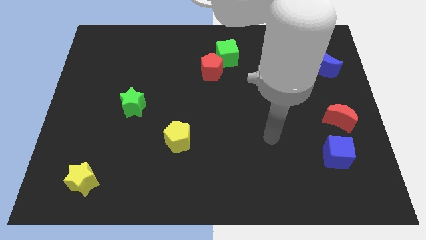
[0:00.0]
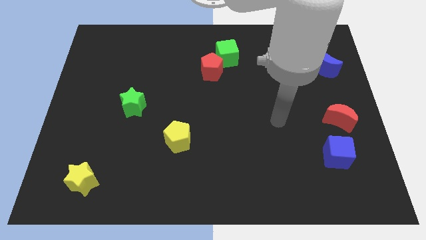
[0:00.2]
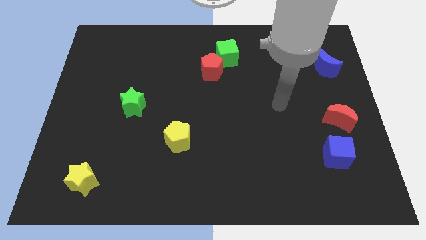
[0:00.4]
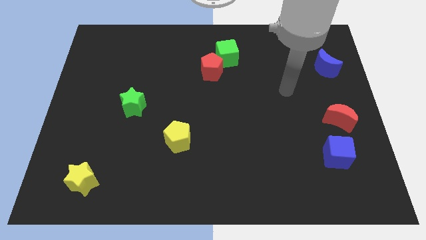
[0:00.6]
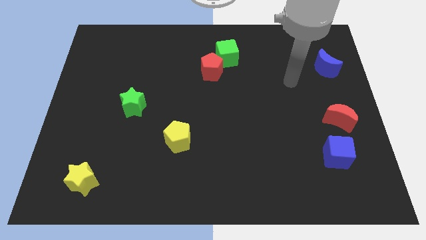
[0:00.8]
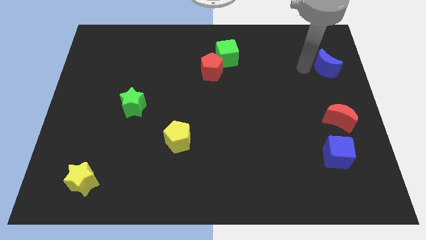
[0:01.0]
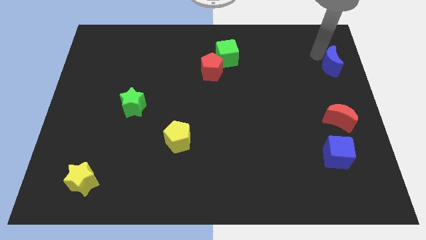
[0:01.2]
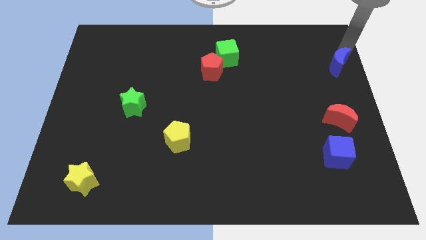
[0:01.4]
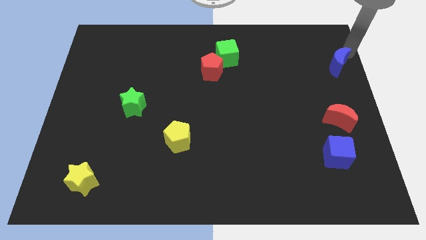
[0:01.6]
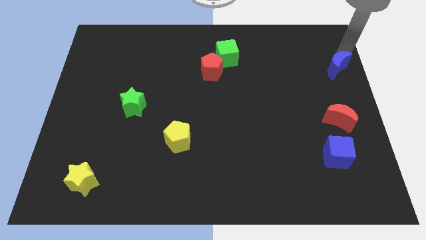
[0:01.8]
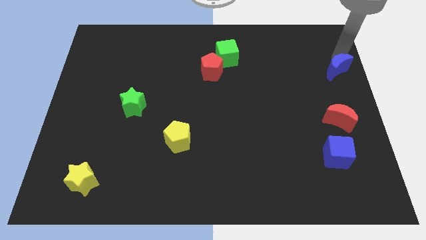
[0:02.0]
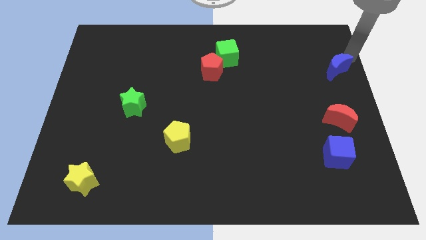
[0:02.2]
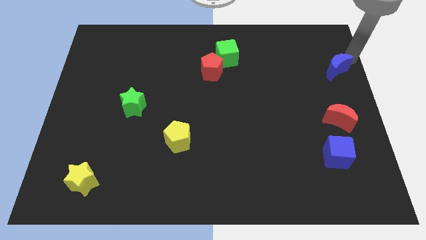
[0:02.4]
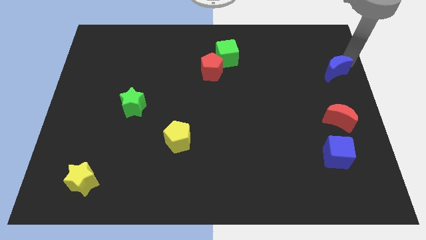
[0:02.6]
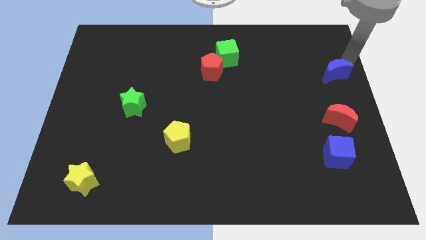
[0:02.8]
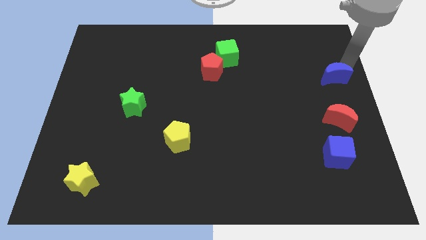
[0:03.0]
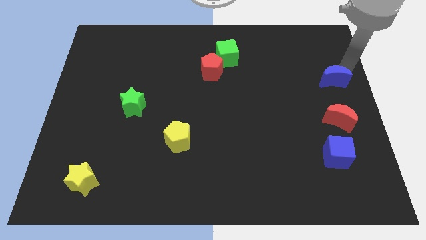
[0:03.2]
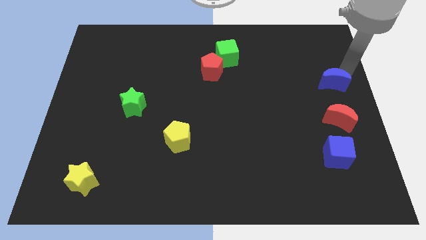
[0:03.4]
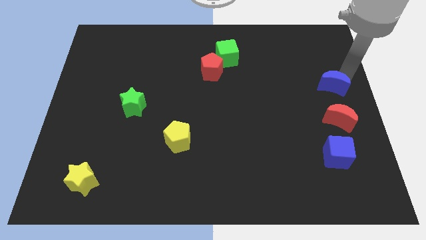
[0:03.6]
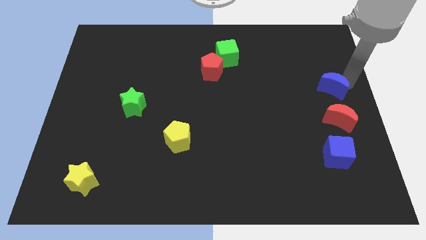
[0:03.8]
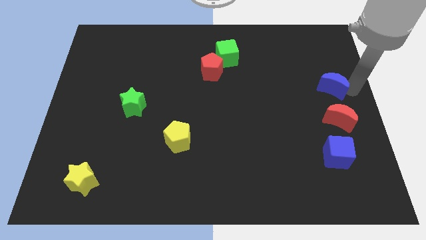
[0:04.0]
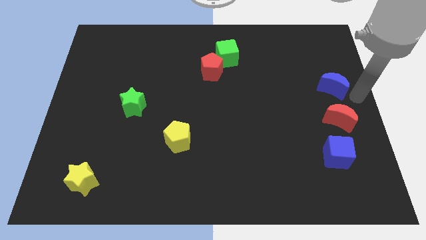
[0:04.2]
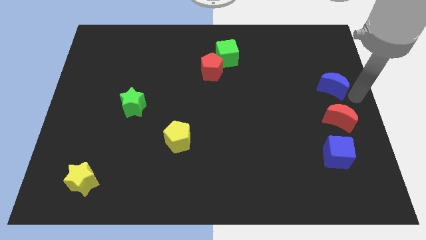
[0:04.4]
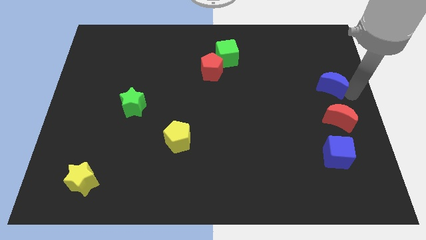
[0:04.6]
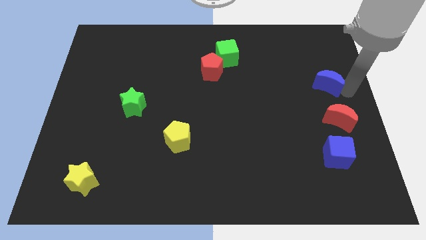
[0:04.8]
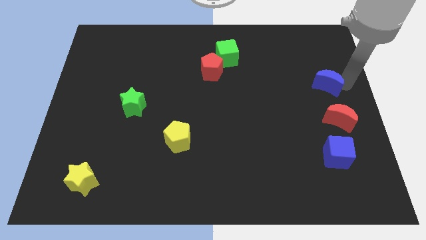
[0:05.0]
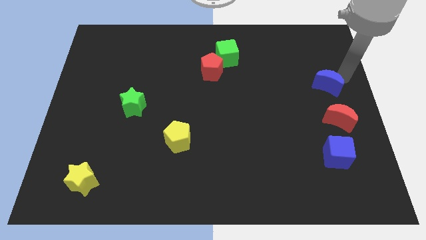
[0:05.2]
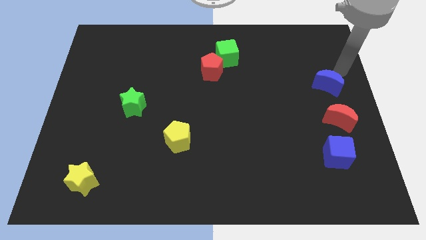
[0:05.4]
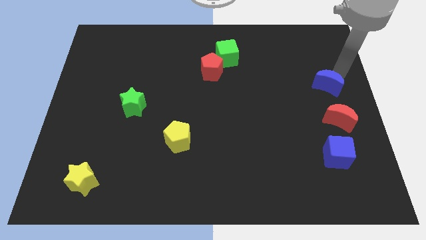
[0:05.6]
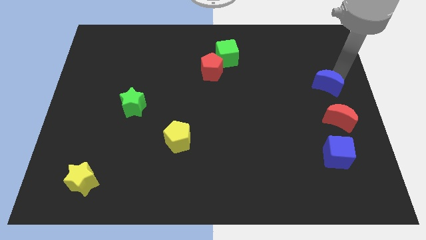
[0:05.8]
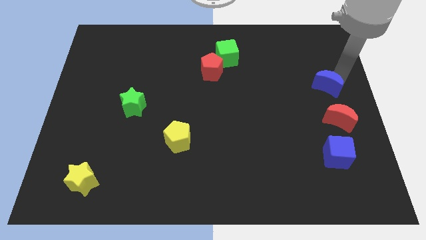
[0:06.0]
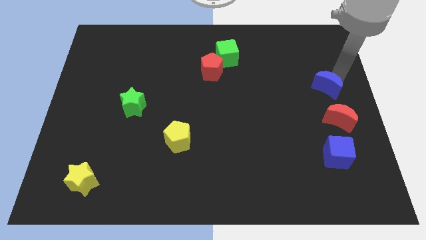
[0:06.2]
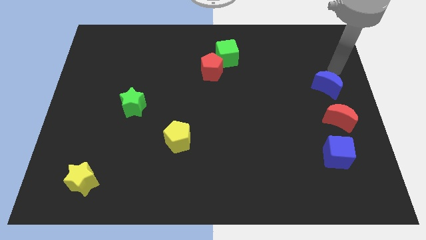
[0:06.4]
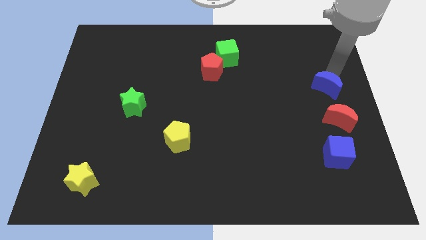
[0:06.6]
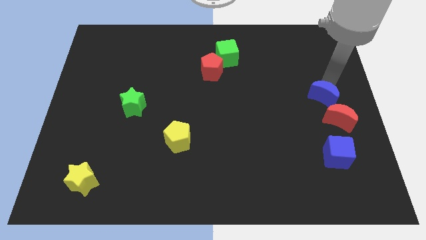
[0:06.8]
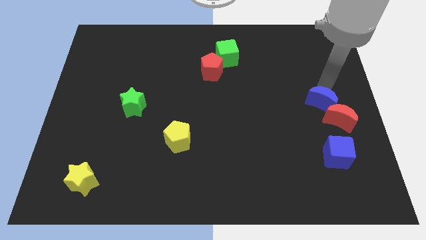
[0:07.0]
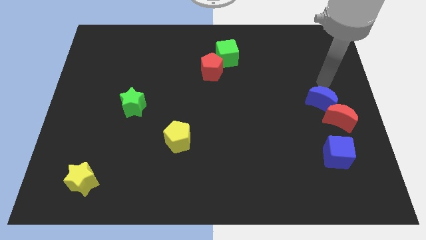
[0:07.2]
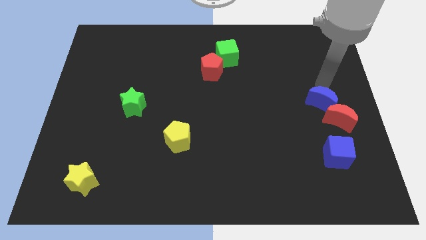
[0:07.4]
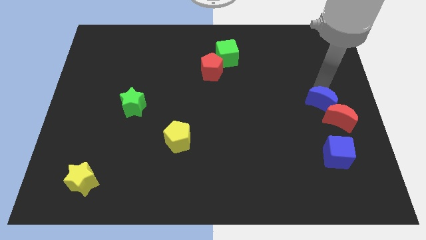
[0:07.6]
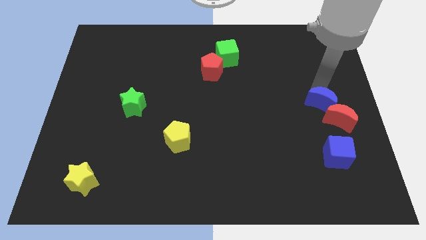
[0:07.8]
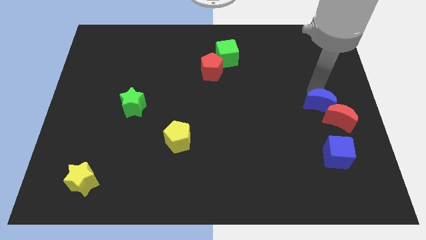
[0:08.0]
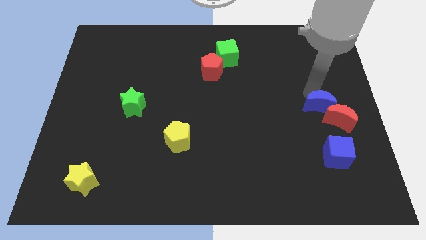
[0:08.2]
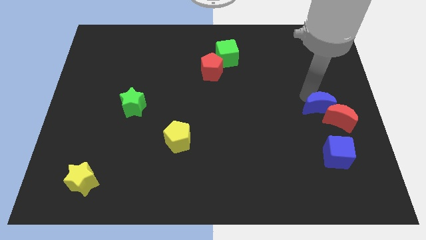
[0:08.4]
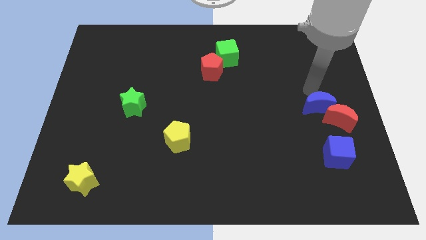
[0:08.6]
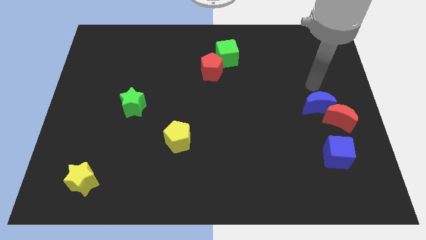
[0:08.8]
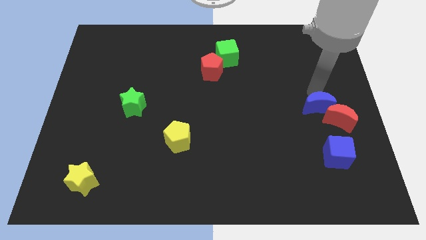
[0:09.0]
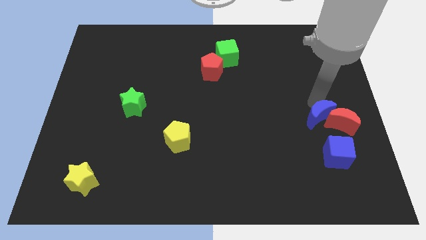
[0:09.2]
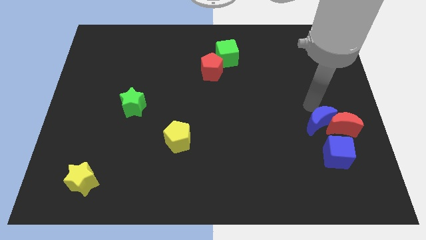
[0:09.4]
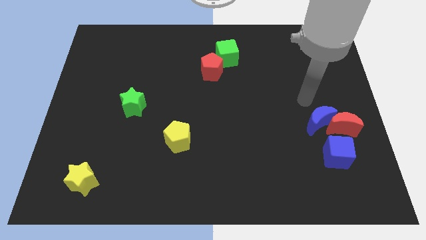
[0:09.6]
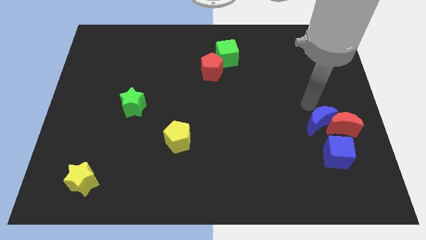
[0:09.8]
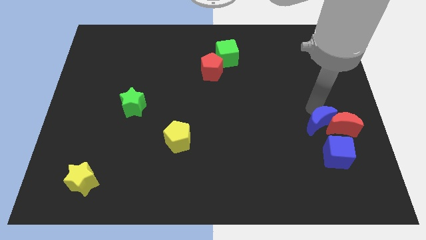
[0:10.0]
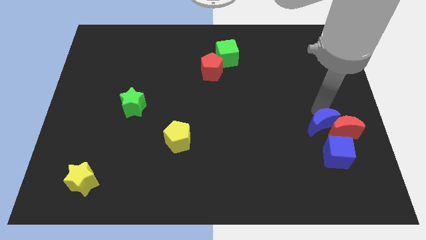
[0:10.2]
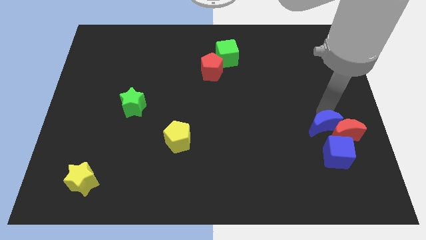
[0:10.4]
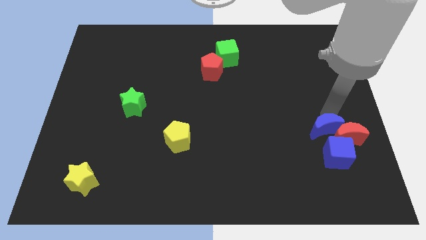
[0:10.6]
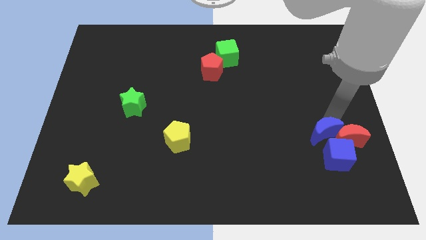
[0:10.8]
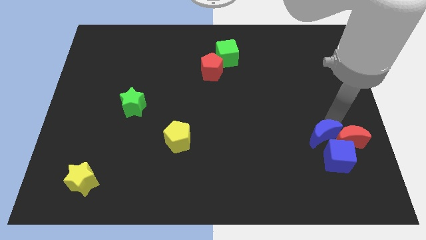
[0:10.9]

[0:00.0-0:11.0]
push the blue moon next to the blue cube

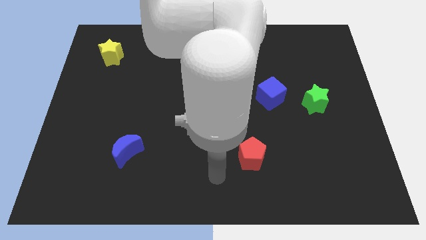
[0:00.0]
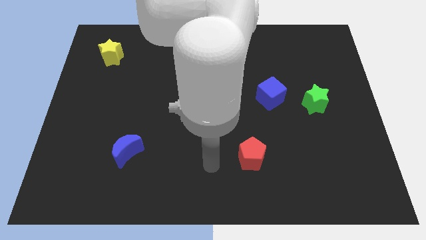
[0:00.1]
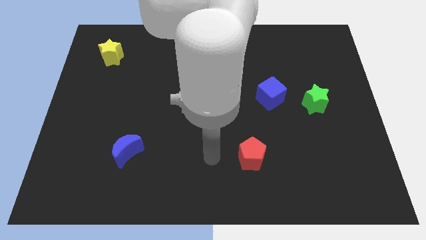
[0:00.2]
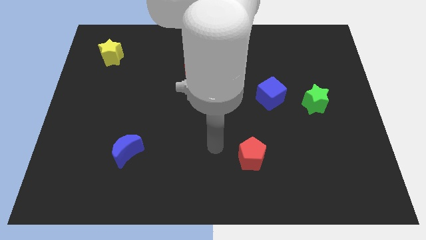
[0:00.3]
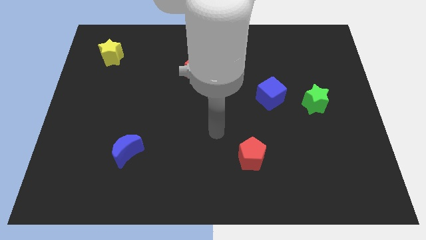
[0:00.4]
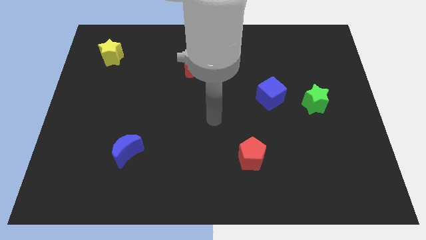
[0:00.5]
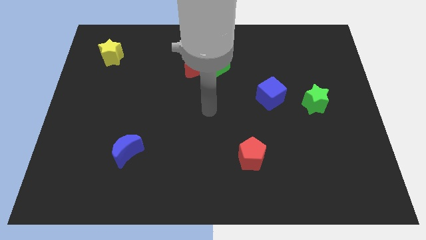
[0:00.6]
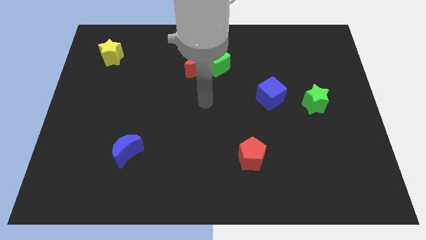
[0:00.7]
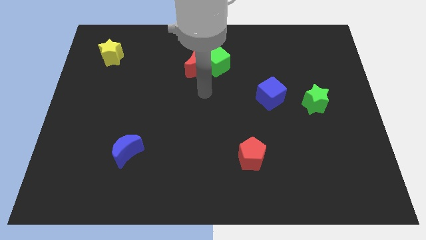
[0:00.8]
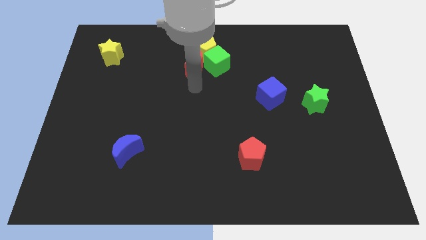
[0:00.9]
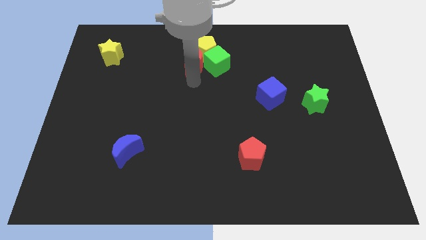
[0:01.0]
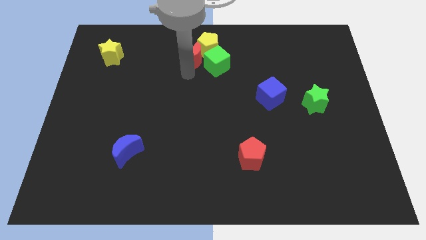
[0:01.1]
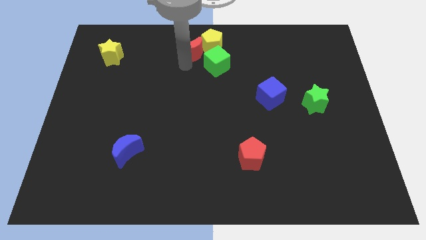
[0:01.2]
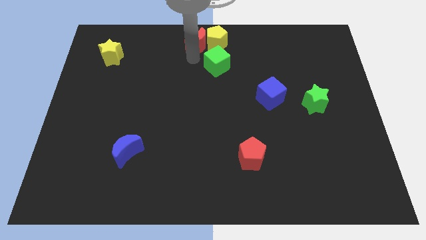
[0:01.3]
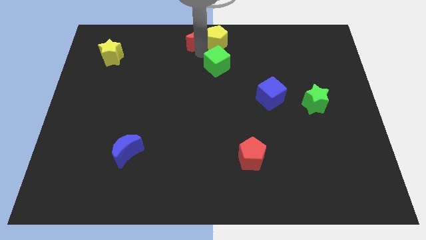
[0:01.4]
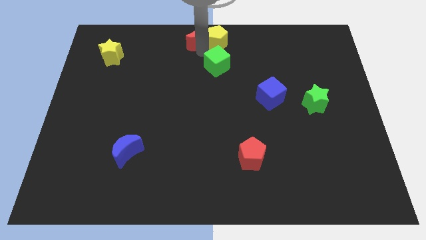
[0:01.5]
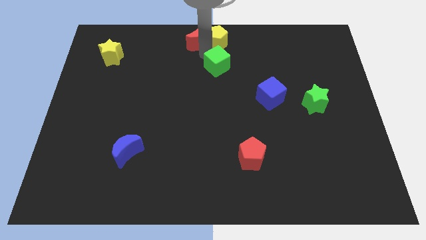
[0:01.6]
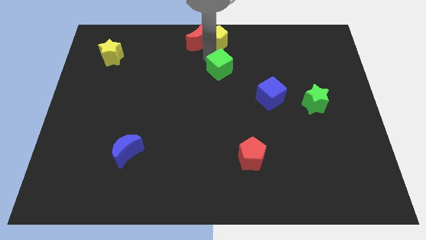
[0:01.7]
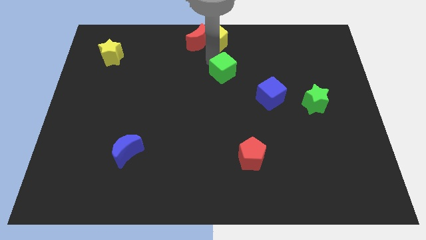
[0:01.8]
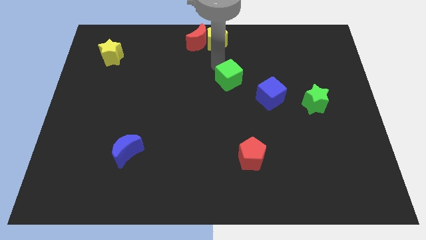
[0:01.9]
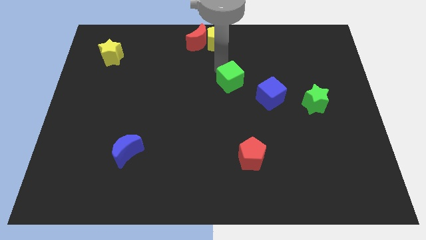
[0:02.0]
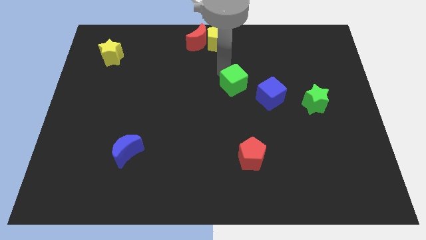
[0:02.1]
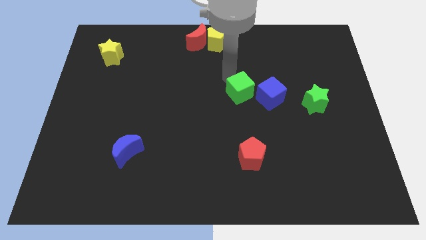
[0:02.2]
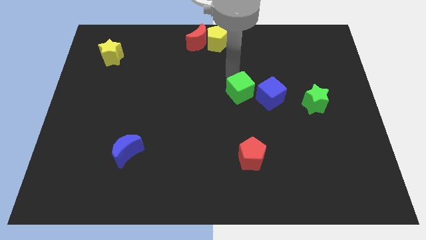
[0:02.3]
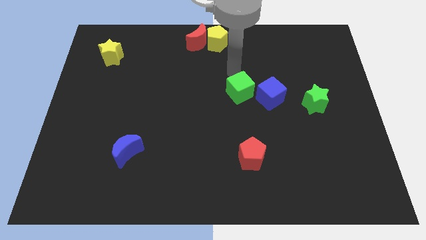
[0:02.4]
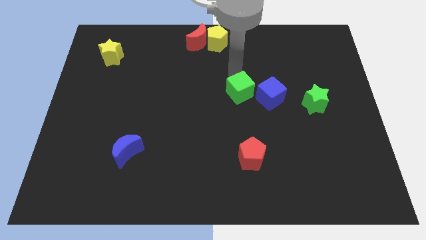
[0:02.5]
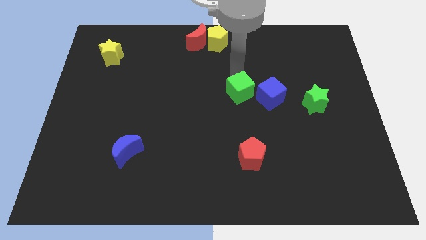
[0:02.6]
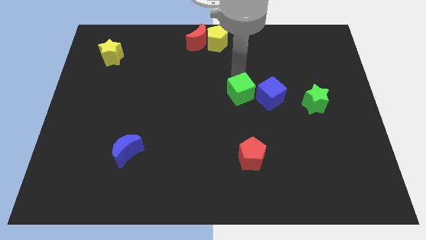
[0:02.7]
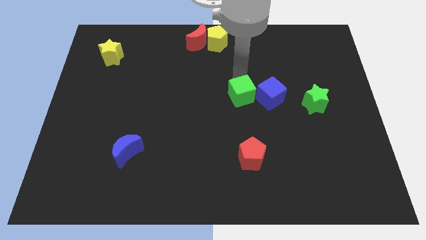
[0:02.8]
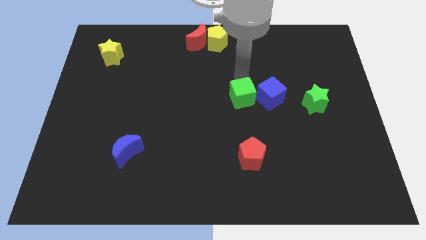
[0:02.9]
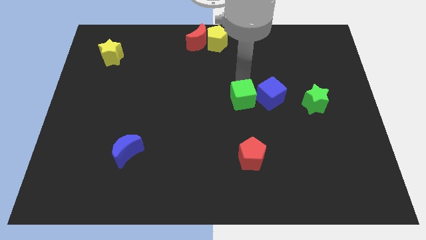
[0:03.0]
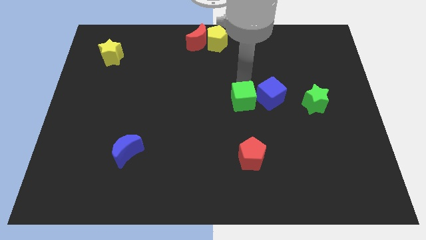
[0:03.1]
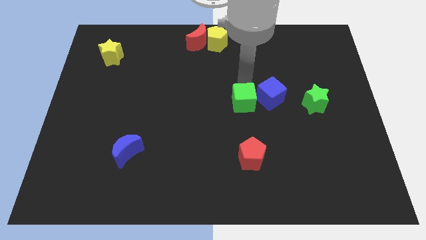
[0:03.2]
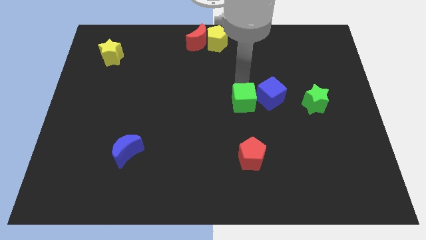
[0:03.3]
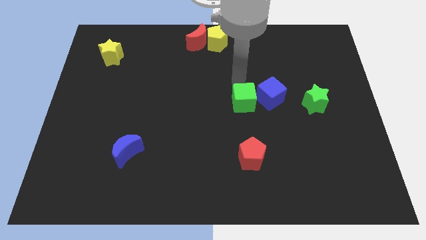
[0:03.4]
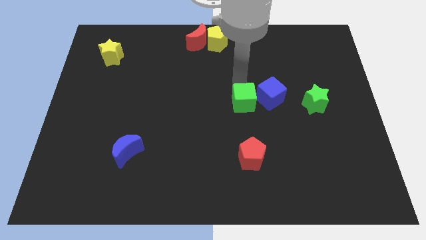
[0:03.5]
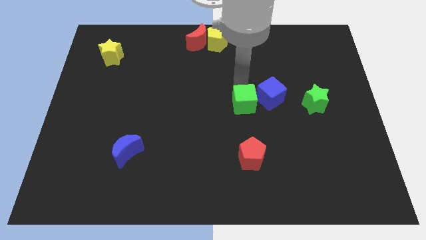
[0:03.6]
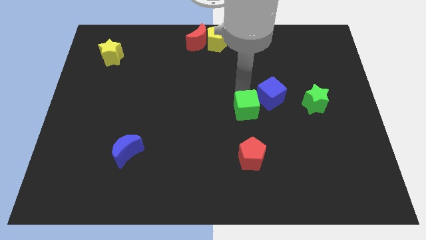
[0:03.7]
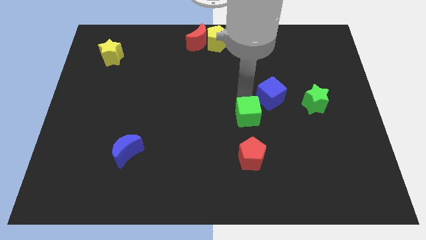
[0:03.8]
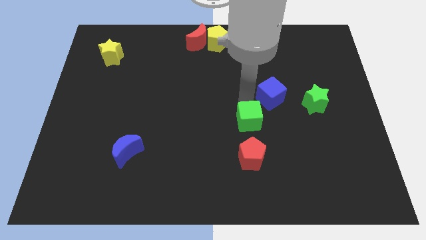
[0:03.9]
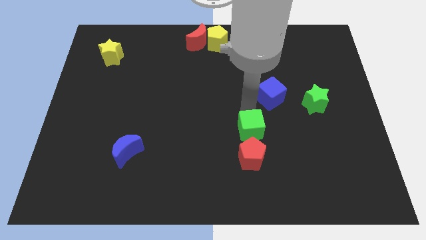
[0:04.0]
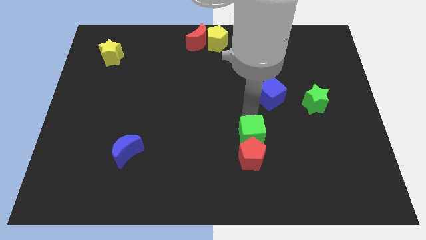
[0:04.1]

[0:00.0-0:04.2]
push the green cube towards the red pentagon
